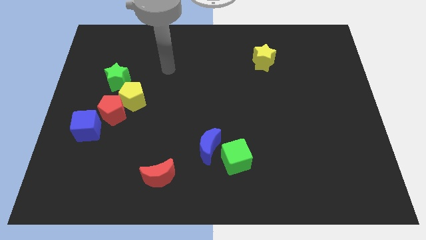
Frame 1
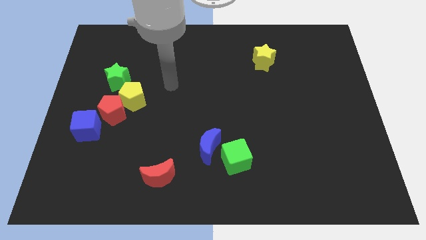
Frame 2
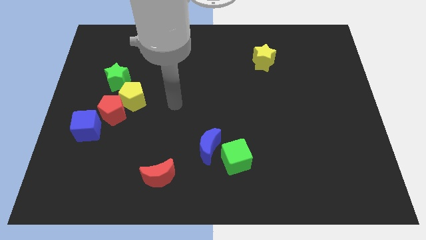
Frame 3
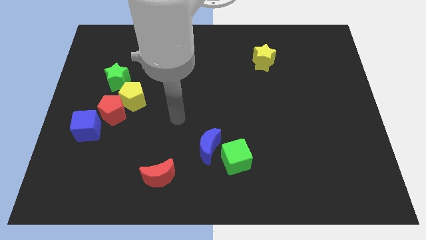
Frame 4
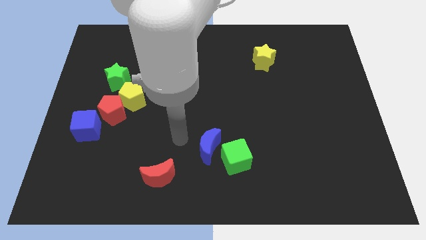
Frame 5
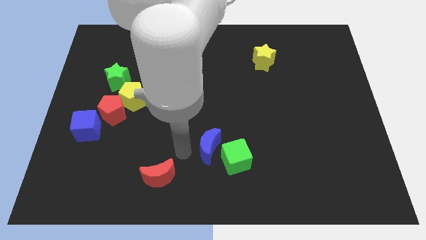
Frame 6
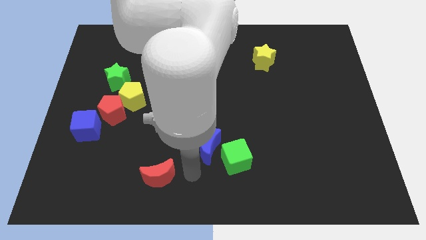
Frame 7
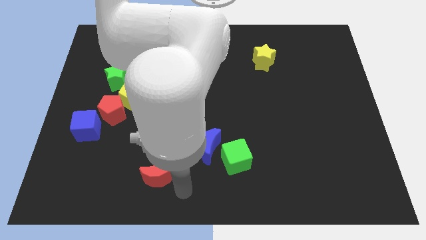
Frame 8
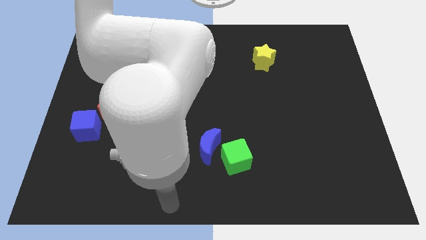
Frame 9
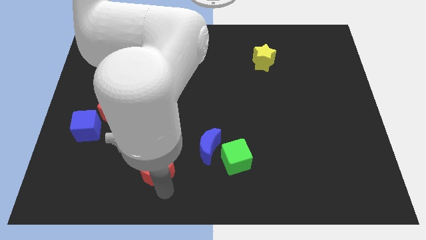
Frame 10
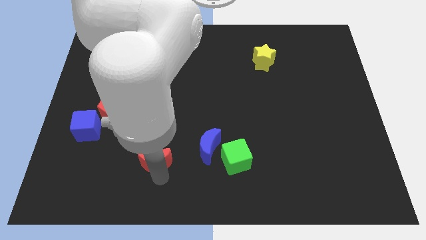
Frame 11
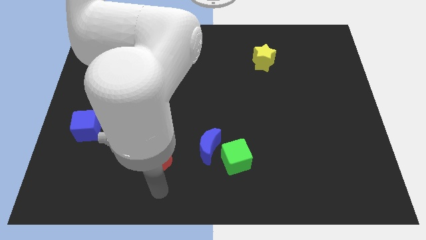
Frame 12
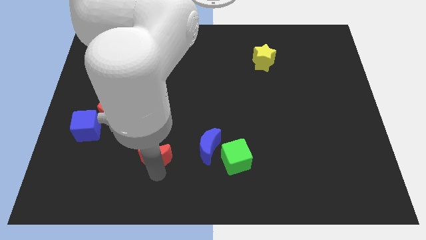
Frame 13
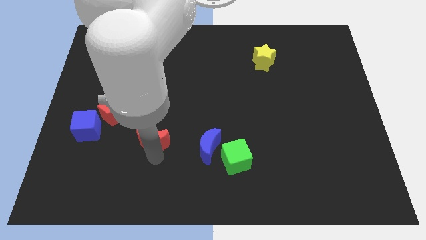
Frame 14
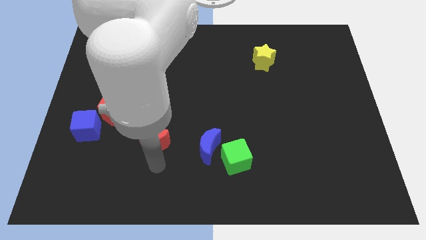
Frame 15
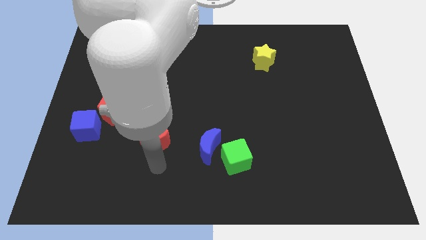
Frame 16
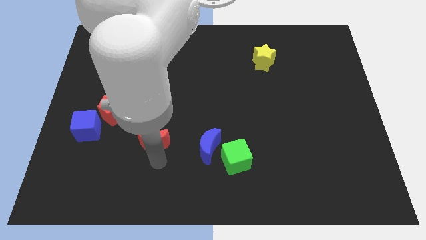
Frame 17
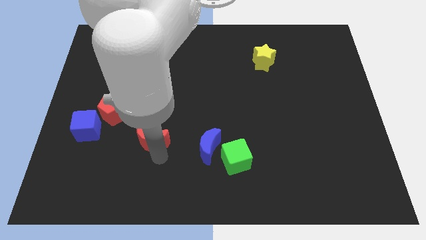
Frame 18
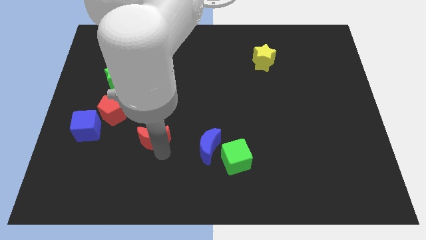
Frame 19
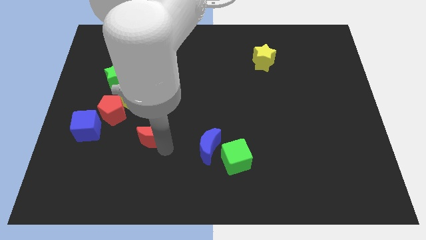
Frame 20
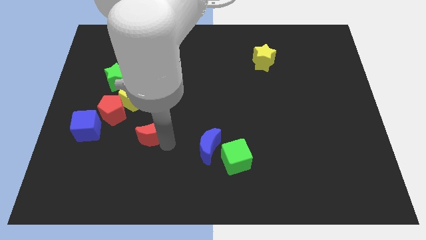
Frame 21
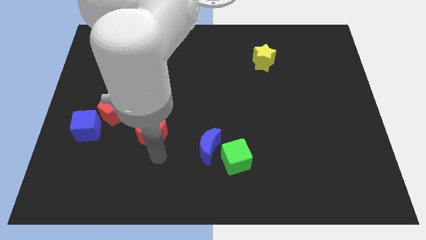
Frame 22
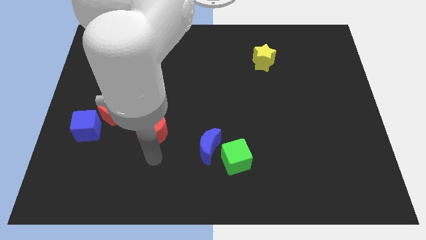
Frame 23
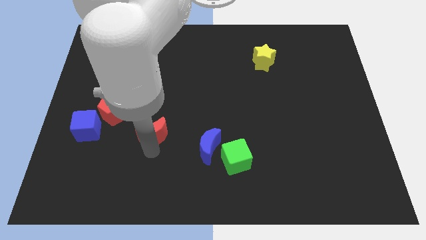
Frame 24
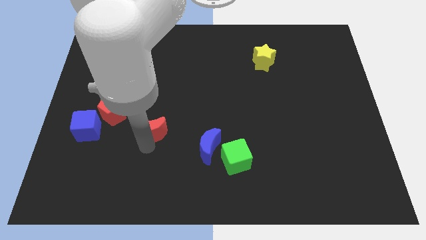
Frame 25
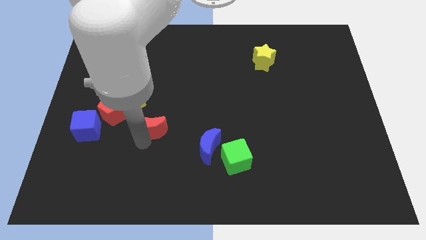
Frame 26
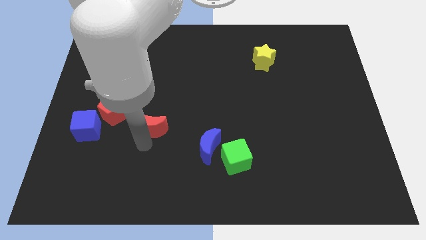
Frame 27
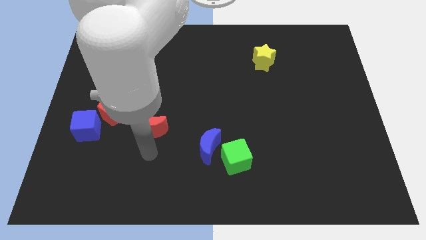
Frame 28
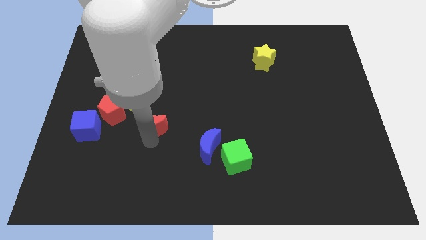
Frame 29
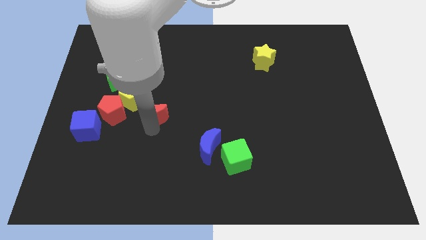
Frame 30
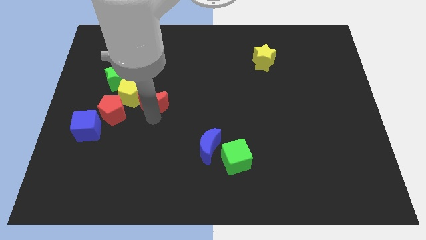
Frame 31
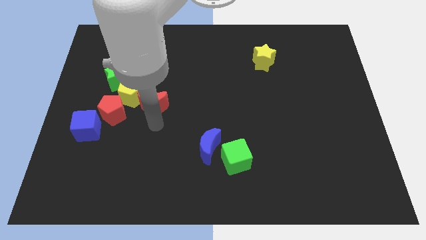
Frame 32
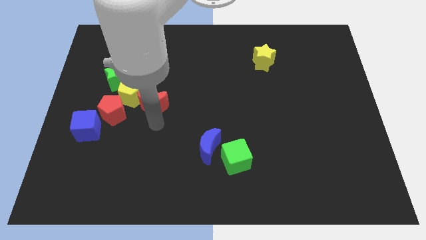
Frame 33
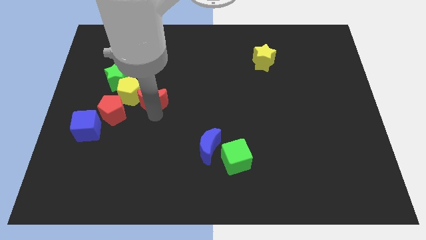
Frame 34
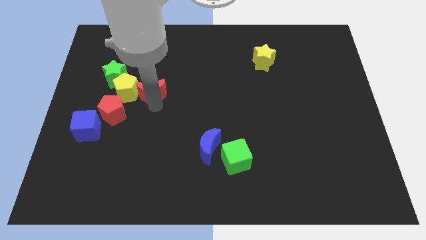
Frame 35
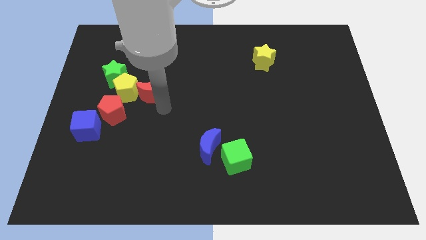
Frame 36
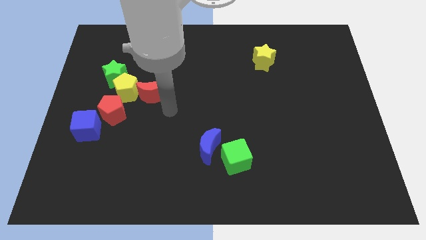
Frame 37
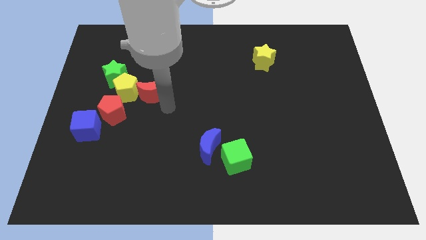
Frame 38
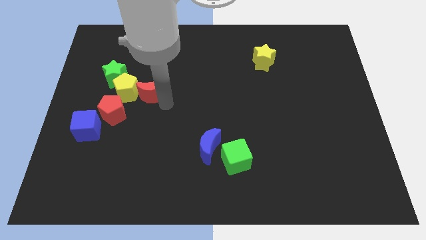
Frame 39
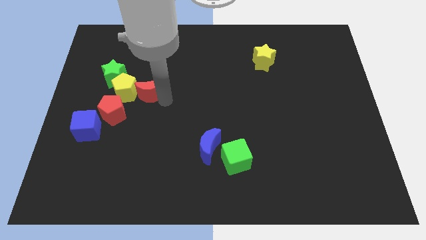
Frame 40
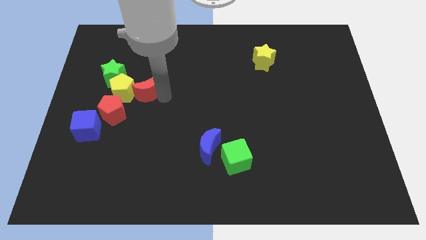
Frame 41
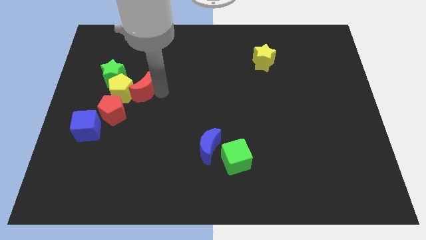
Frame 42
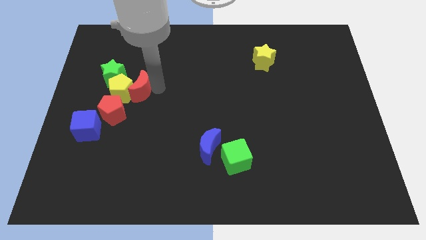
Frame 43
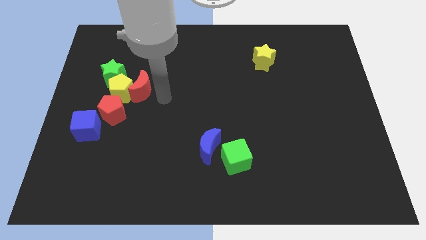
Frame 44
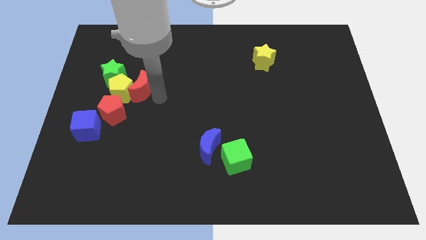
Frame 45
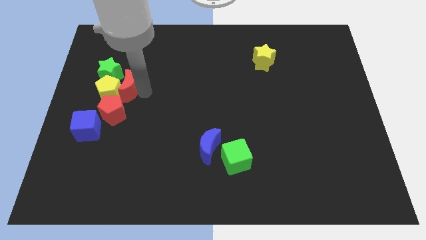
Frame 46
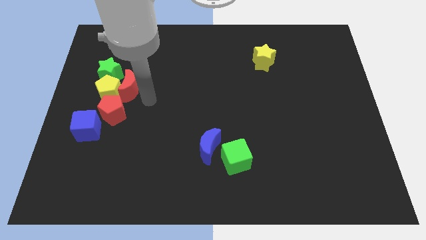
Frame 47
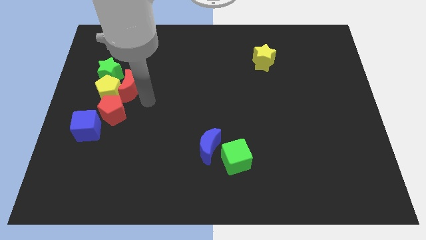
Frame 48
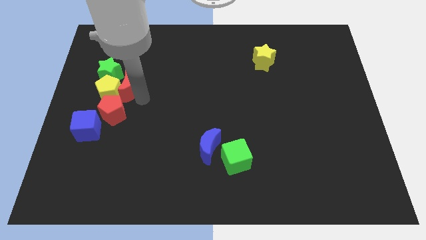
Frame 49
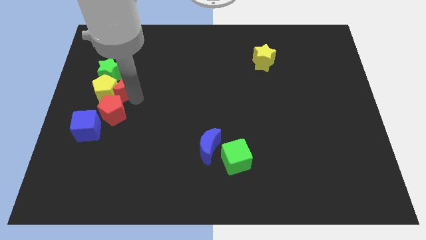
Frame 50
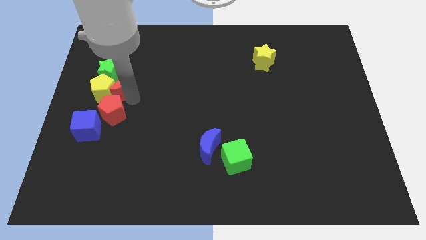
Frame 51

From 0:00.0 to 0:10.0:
slide the red moon next to the green star
